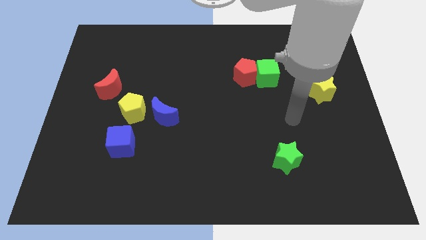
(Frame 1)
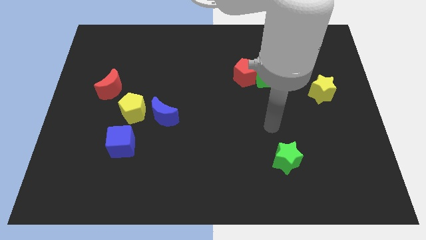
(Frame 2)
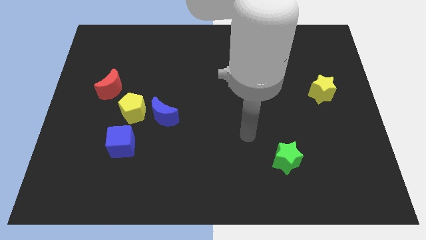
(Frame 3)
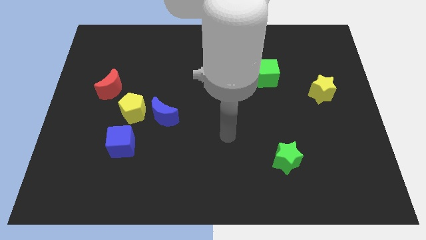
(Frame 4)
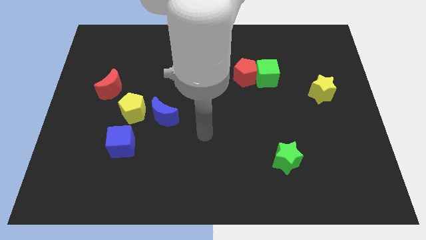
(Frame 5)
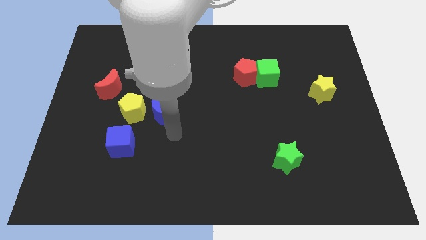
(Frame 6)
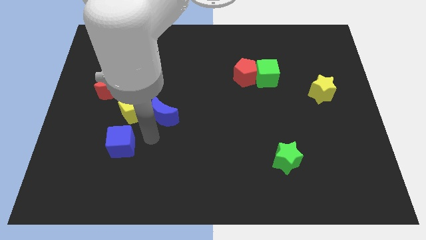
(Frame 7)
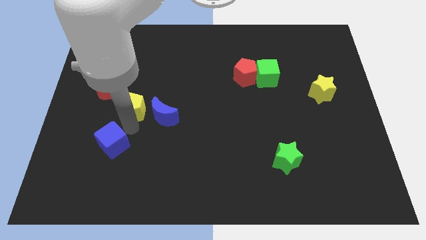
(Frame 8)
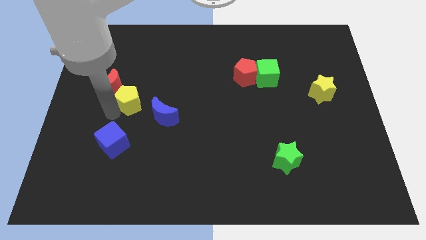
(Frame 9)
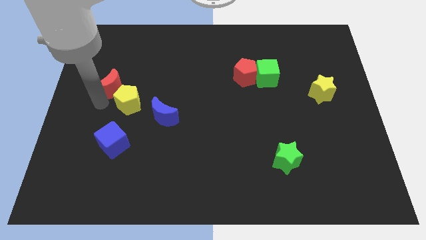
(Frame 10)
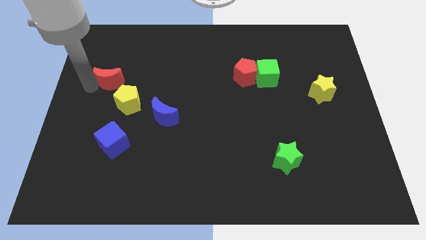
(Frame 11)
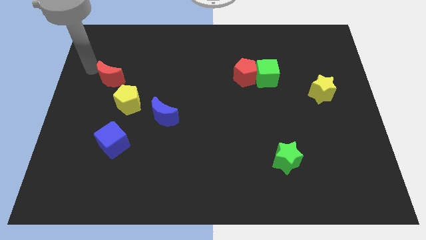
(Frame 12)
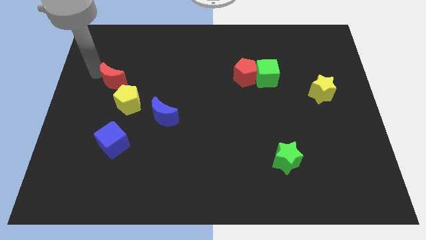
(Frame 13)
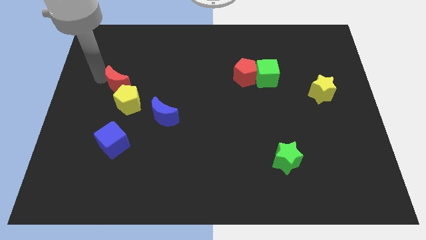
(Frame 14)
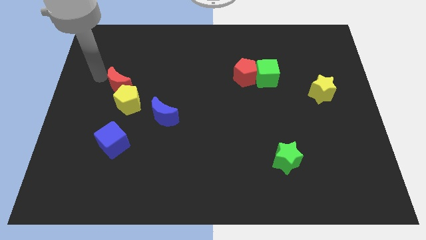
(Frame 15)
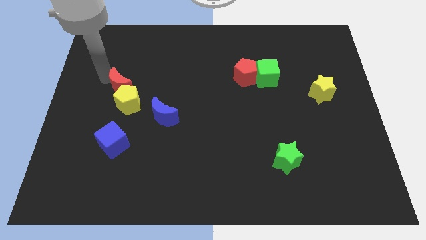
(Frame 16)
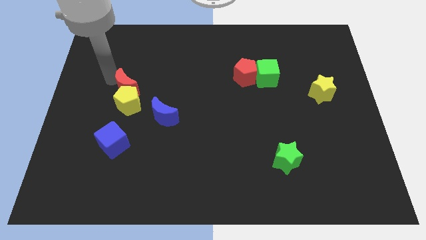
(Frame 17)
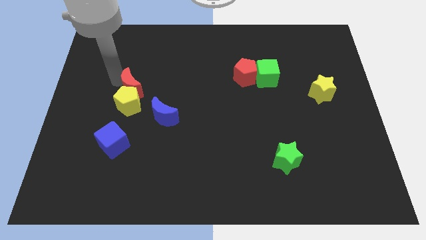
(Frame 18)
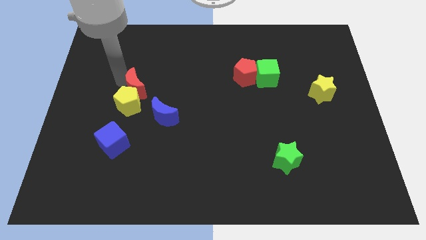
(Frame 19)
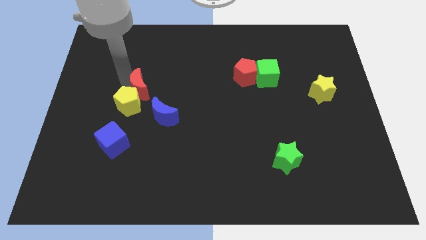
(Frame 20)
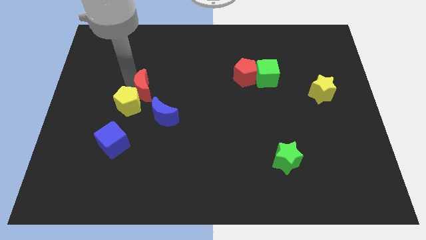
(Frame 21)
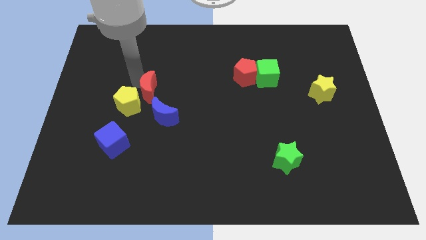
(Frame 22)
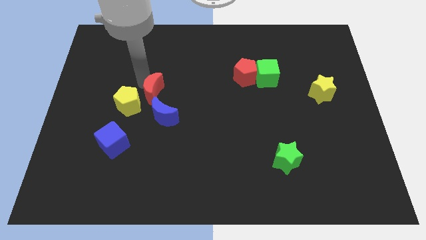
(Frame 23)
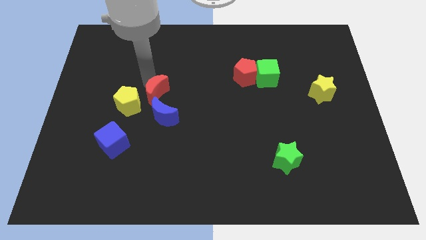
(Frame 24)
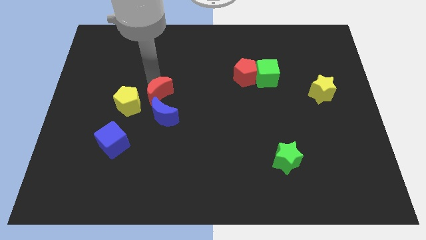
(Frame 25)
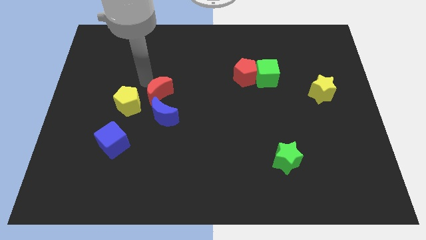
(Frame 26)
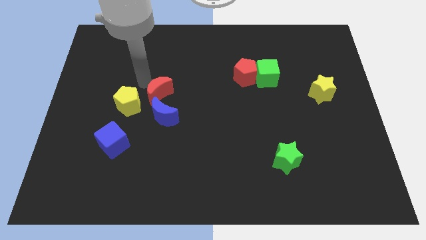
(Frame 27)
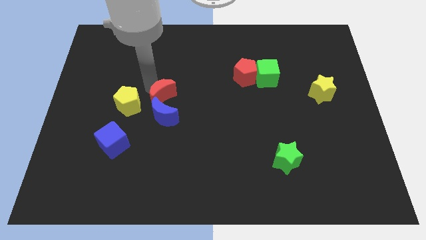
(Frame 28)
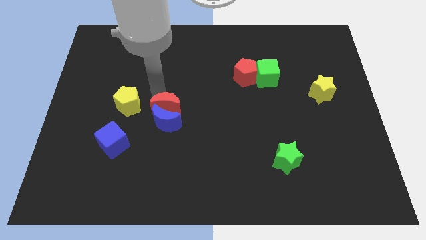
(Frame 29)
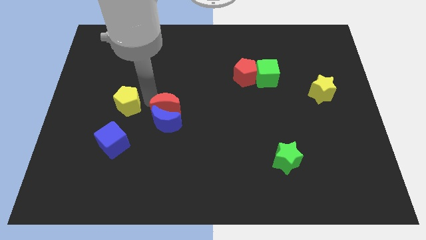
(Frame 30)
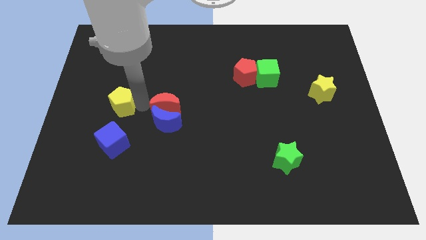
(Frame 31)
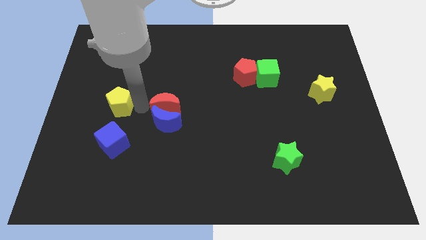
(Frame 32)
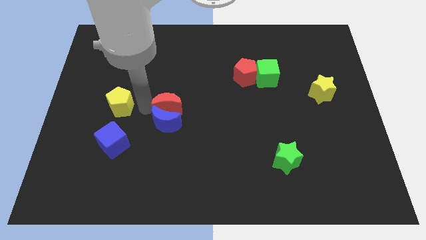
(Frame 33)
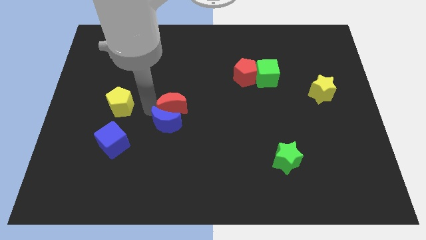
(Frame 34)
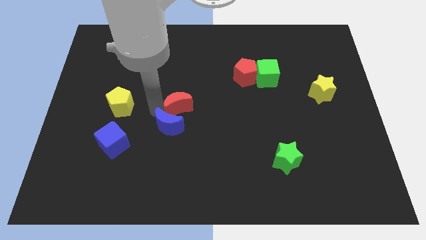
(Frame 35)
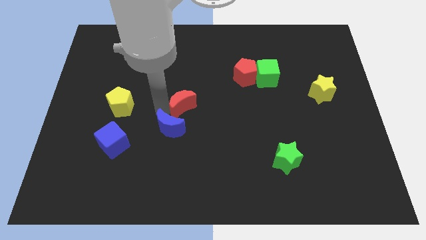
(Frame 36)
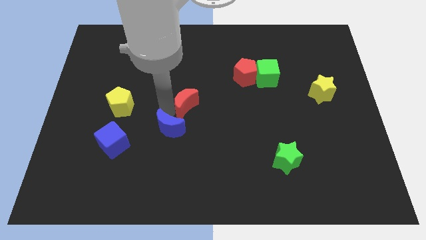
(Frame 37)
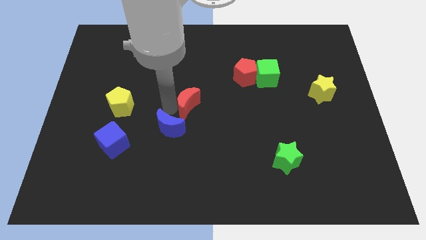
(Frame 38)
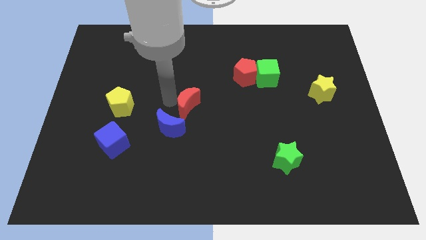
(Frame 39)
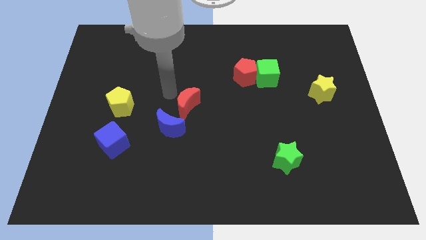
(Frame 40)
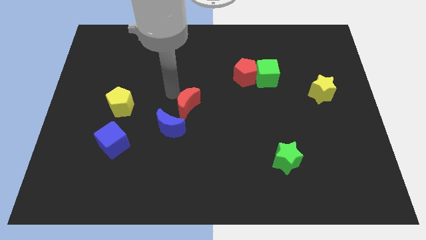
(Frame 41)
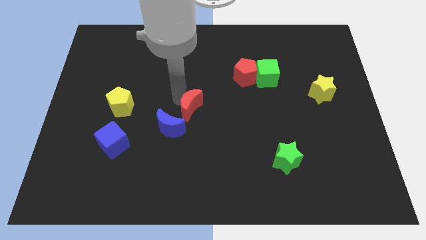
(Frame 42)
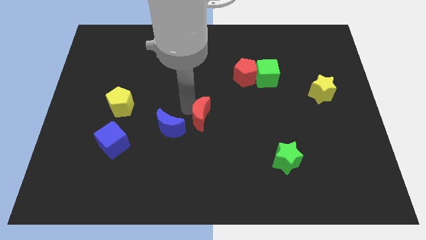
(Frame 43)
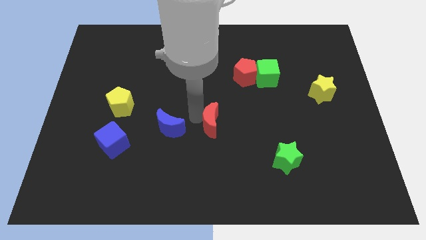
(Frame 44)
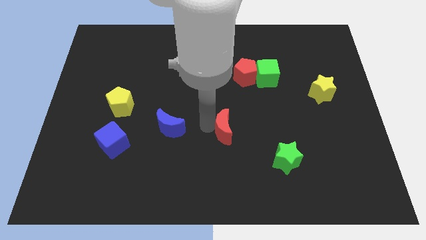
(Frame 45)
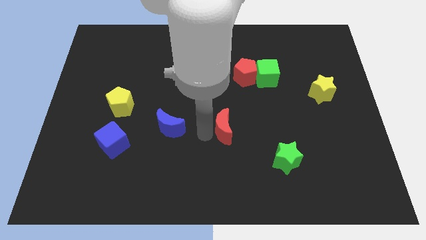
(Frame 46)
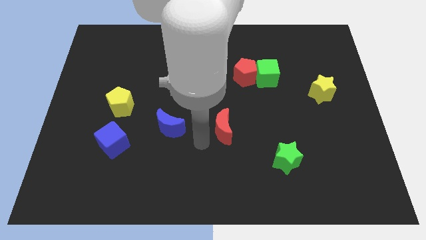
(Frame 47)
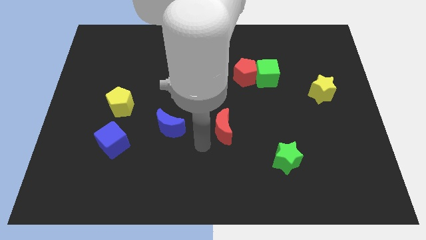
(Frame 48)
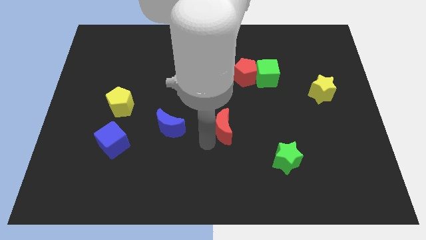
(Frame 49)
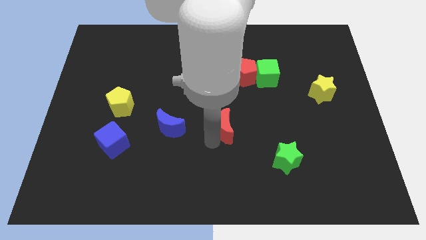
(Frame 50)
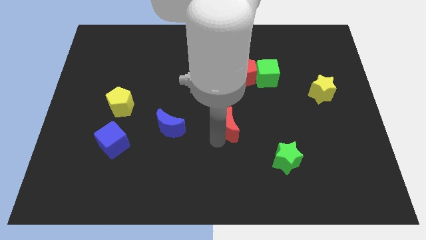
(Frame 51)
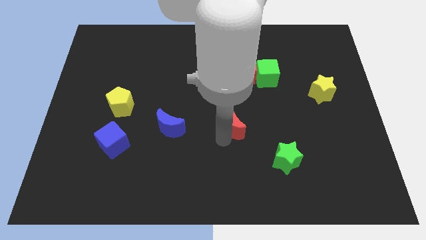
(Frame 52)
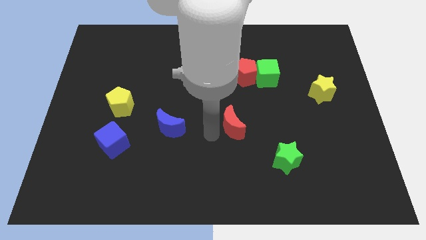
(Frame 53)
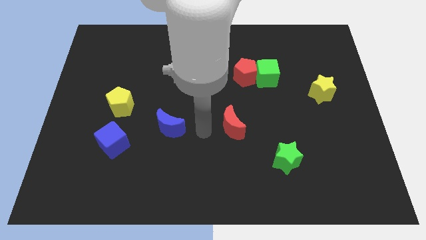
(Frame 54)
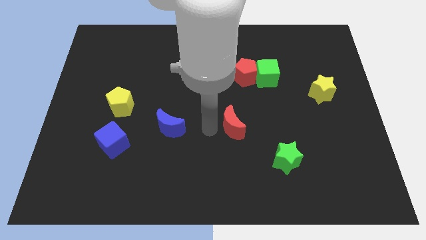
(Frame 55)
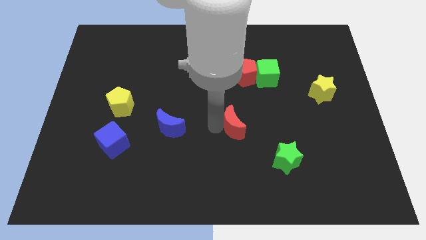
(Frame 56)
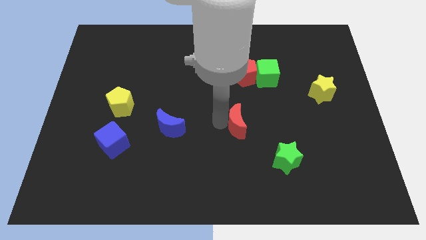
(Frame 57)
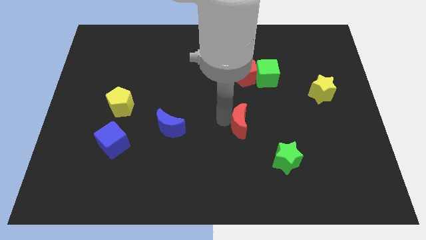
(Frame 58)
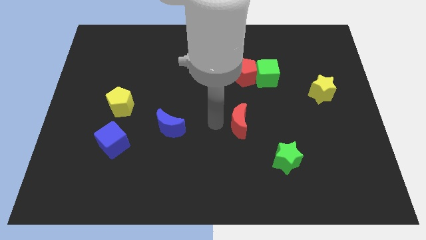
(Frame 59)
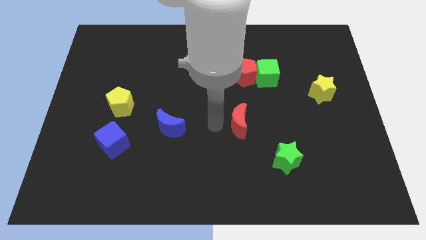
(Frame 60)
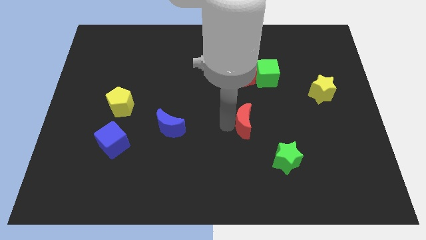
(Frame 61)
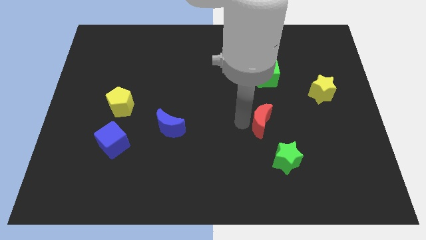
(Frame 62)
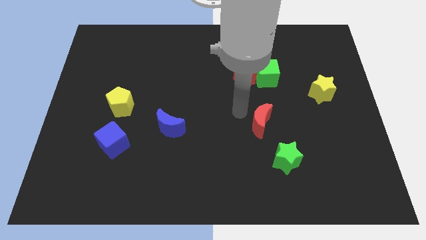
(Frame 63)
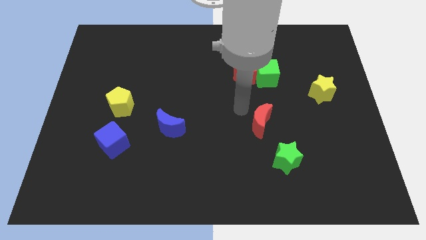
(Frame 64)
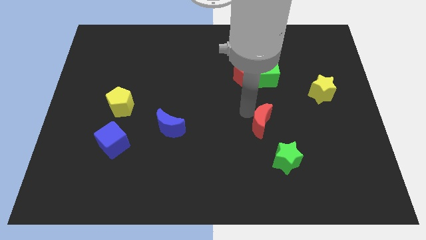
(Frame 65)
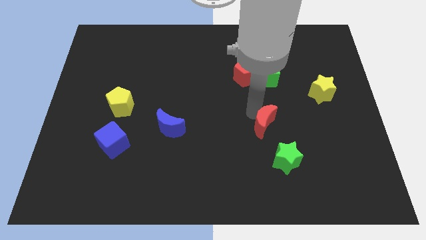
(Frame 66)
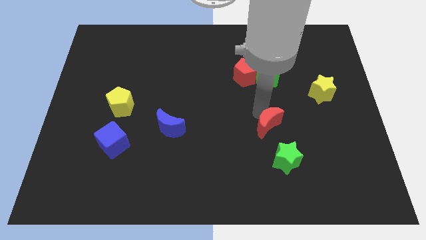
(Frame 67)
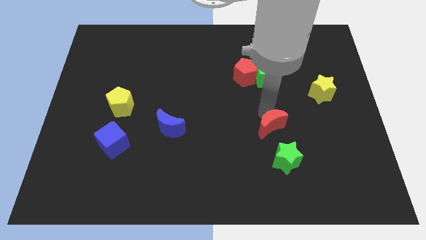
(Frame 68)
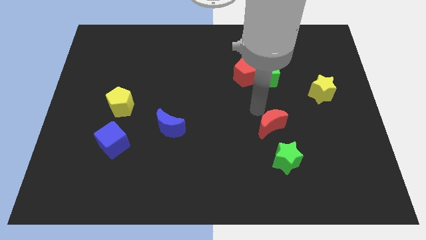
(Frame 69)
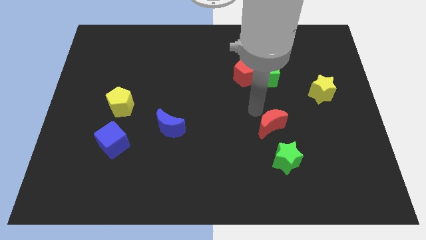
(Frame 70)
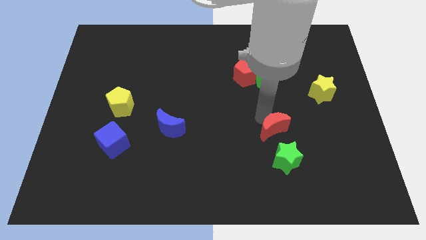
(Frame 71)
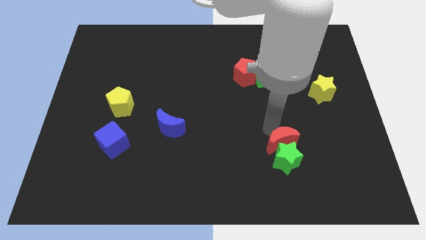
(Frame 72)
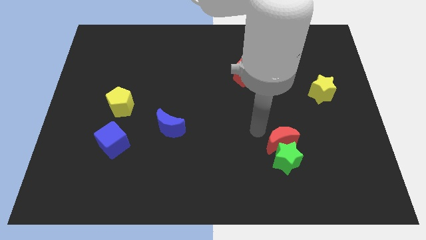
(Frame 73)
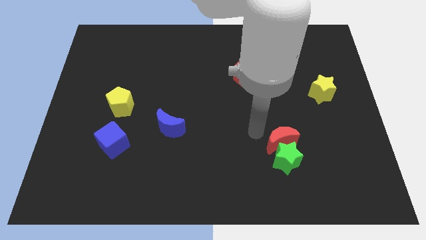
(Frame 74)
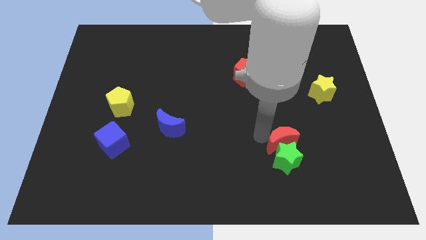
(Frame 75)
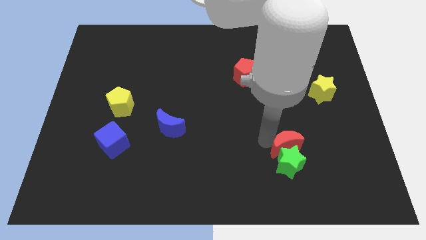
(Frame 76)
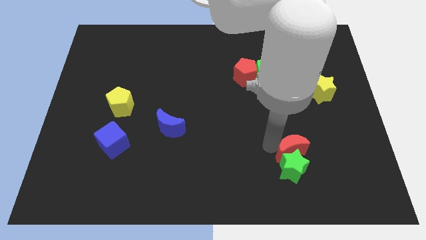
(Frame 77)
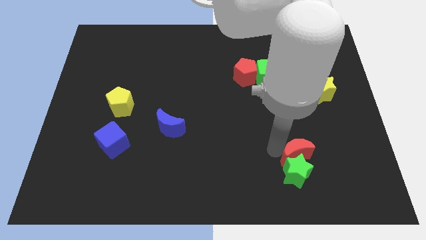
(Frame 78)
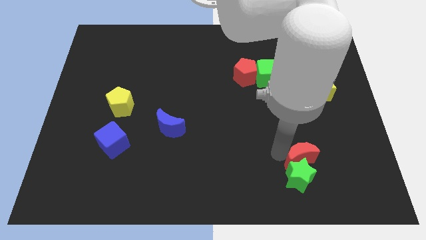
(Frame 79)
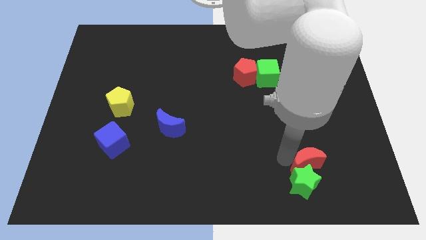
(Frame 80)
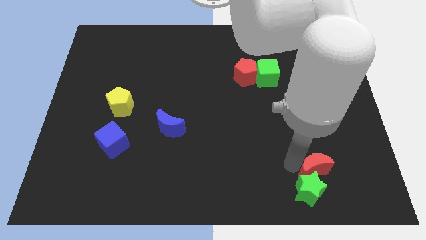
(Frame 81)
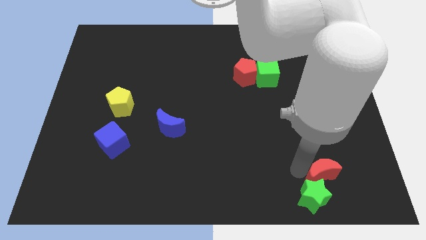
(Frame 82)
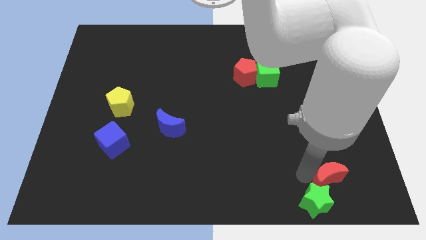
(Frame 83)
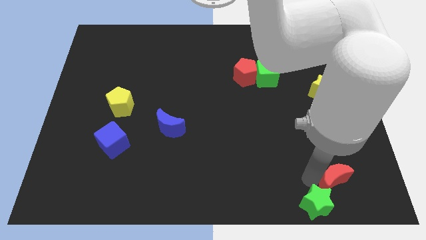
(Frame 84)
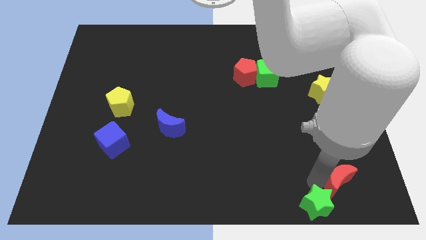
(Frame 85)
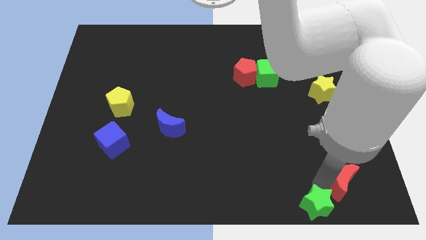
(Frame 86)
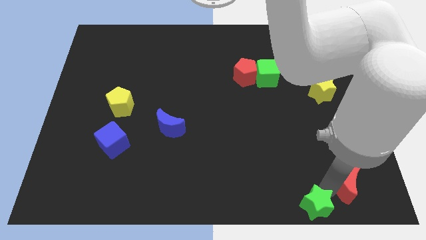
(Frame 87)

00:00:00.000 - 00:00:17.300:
move the red moon to the bottom right corner
